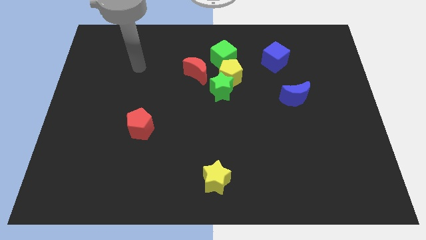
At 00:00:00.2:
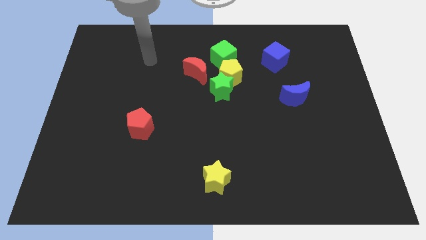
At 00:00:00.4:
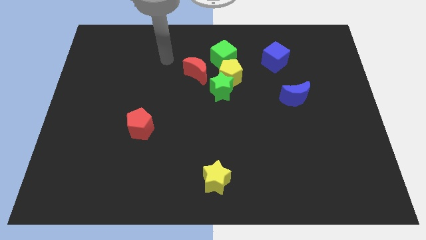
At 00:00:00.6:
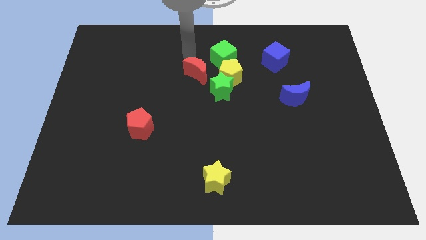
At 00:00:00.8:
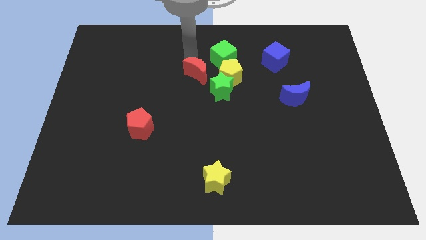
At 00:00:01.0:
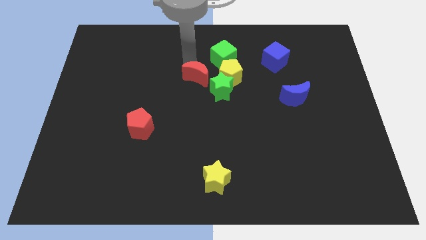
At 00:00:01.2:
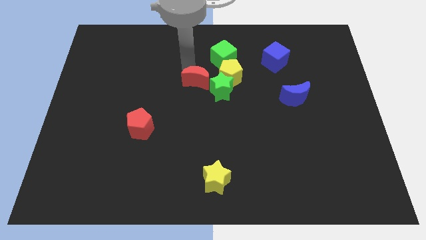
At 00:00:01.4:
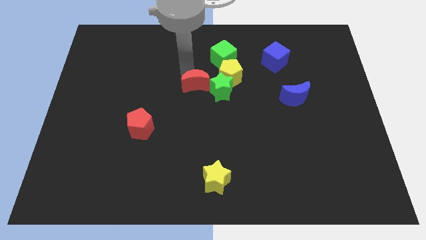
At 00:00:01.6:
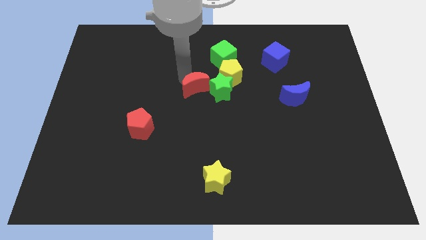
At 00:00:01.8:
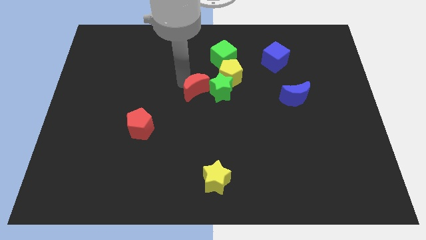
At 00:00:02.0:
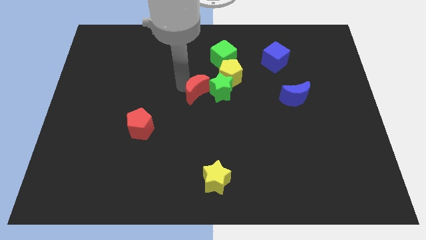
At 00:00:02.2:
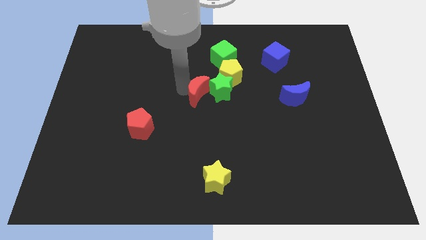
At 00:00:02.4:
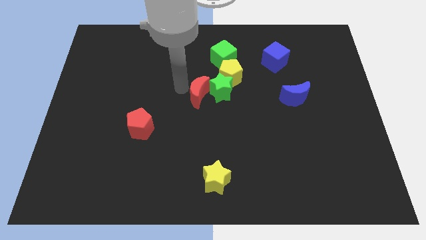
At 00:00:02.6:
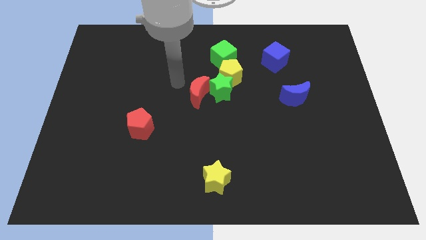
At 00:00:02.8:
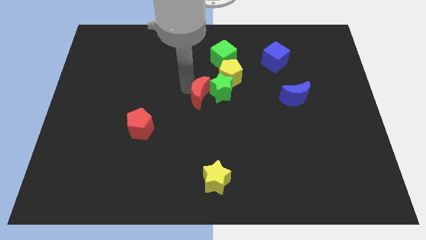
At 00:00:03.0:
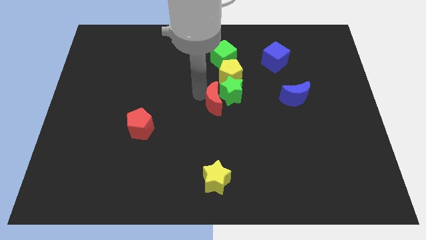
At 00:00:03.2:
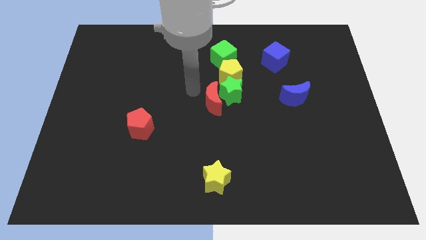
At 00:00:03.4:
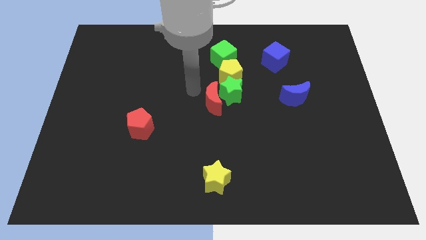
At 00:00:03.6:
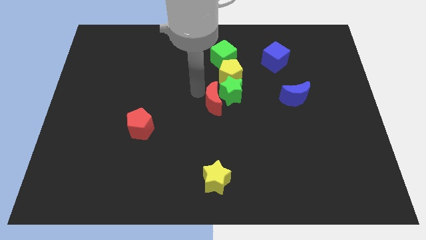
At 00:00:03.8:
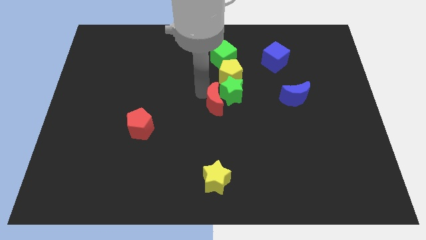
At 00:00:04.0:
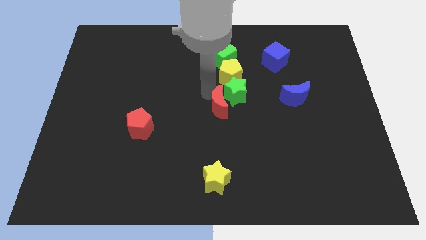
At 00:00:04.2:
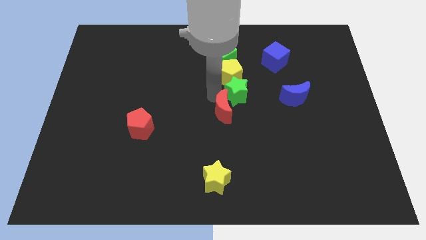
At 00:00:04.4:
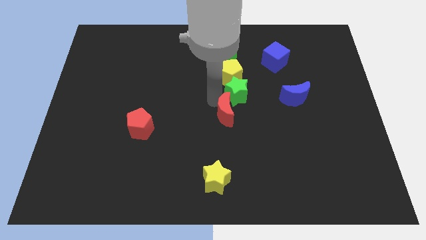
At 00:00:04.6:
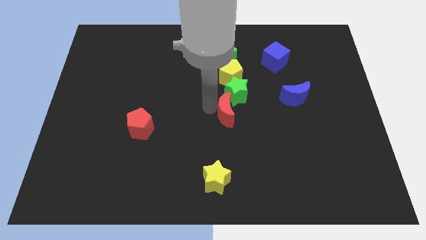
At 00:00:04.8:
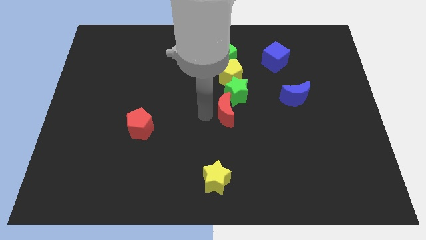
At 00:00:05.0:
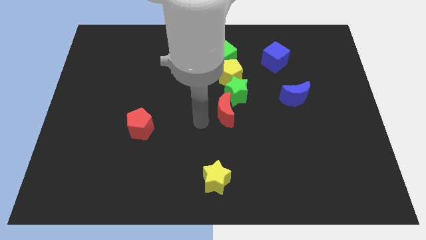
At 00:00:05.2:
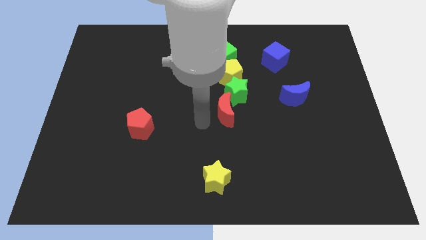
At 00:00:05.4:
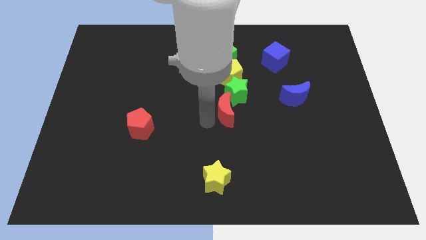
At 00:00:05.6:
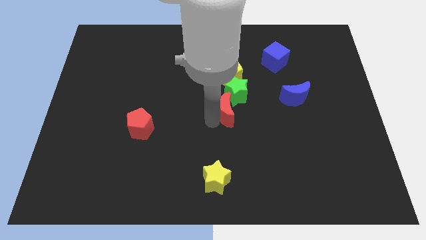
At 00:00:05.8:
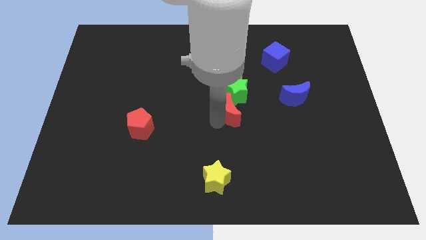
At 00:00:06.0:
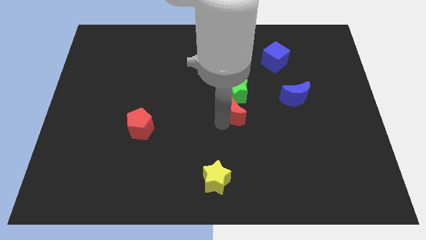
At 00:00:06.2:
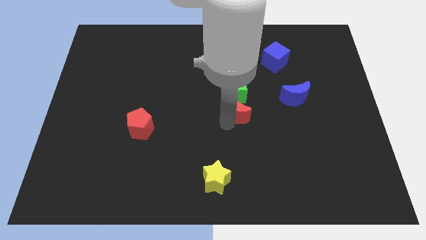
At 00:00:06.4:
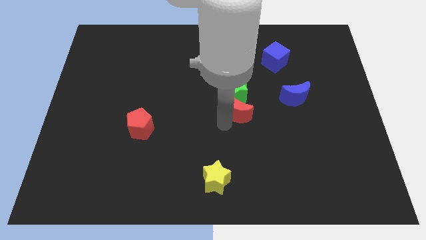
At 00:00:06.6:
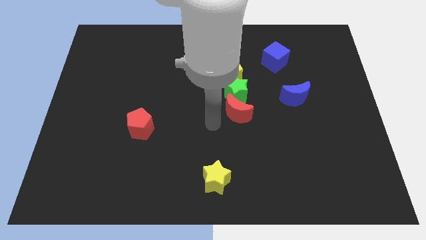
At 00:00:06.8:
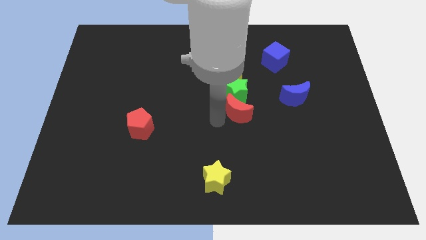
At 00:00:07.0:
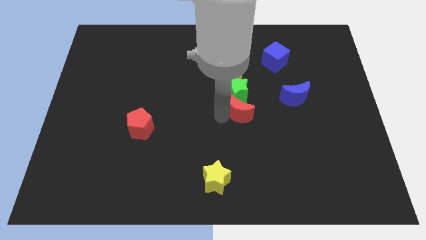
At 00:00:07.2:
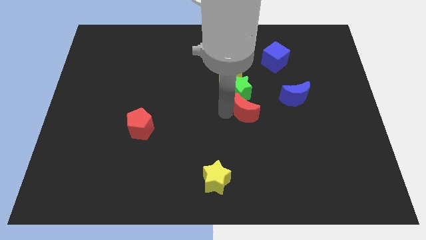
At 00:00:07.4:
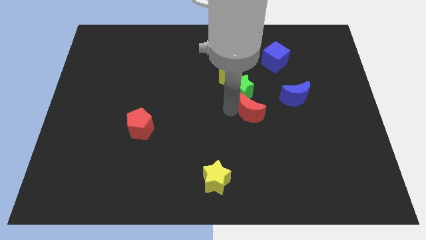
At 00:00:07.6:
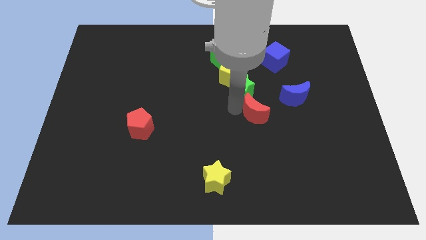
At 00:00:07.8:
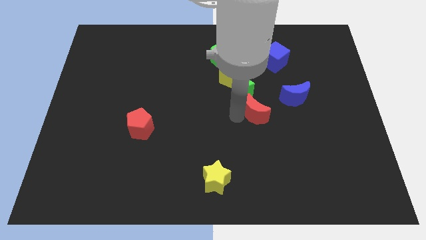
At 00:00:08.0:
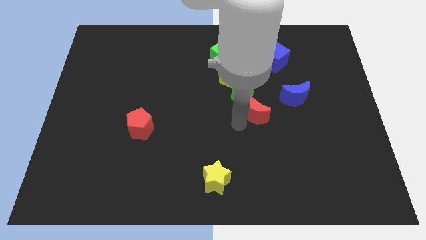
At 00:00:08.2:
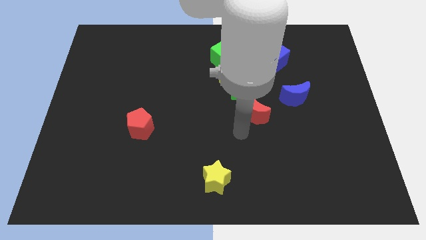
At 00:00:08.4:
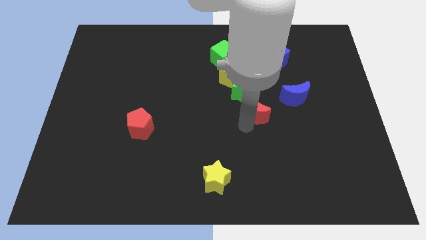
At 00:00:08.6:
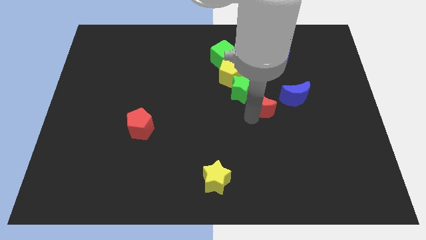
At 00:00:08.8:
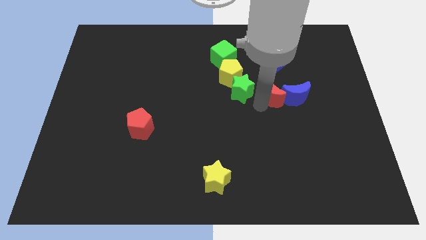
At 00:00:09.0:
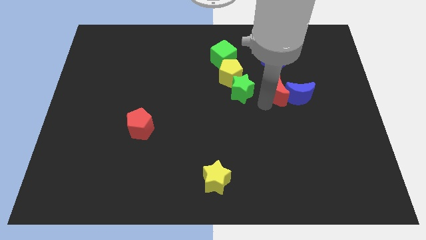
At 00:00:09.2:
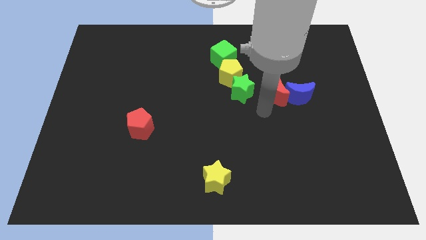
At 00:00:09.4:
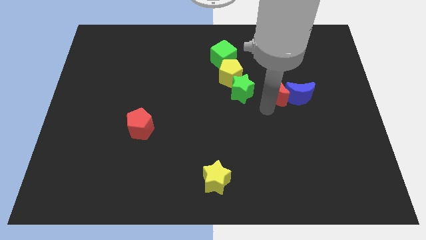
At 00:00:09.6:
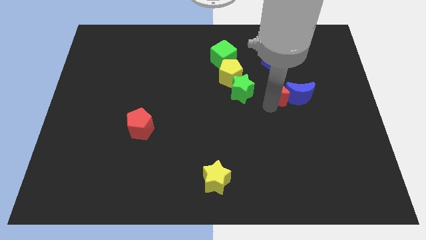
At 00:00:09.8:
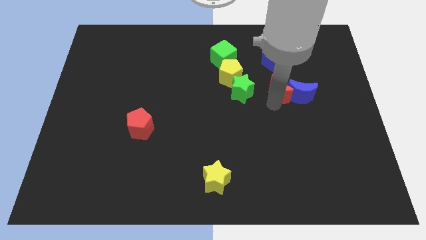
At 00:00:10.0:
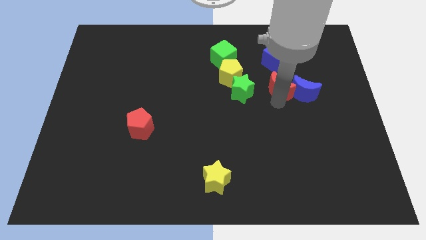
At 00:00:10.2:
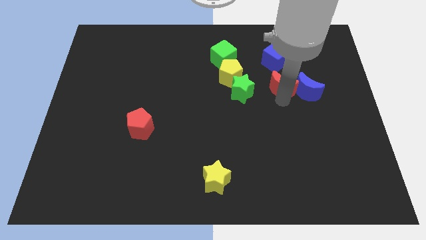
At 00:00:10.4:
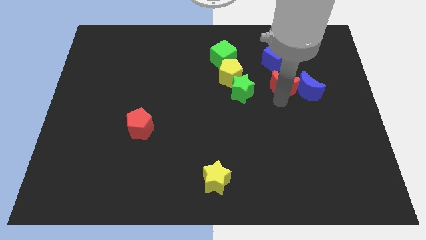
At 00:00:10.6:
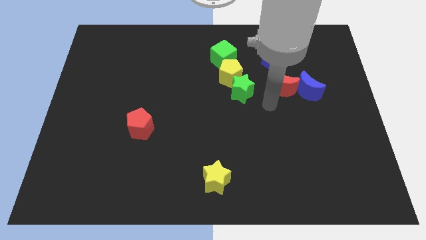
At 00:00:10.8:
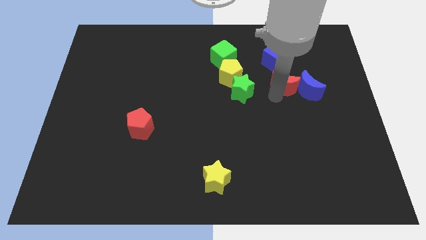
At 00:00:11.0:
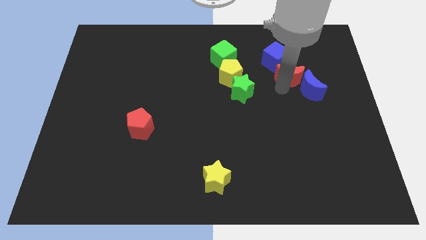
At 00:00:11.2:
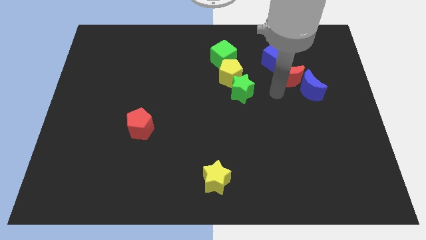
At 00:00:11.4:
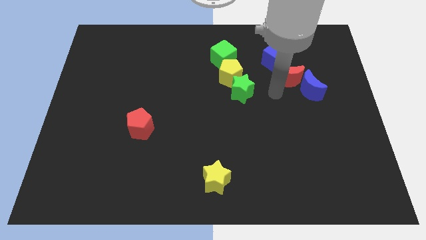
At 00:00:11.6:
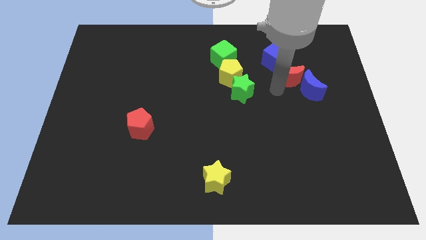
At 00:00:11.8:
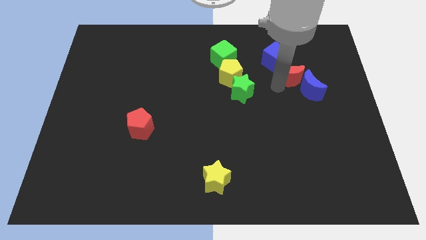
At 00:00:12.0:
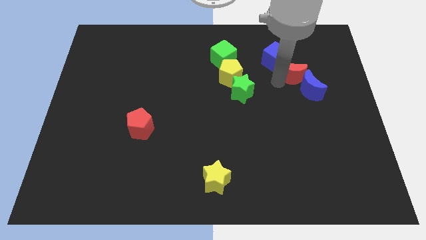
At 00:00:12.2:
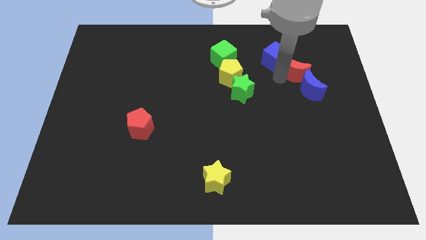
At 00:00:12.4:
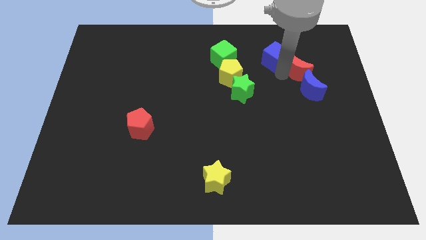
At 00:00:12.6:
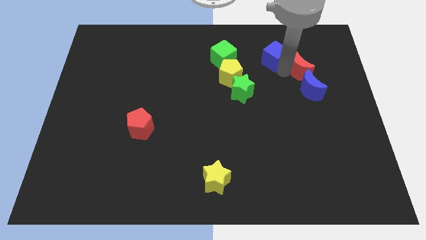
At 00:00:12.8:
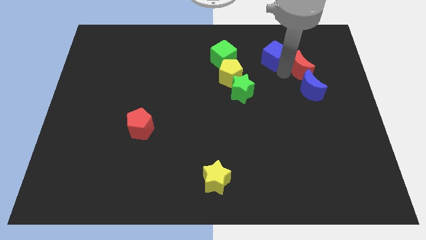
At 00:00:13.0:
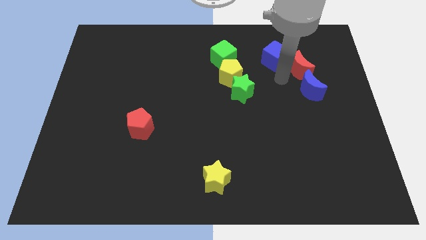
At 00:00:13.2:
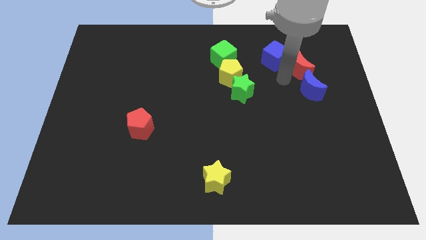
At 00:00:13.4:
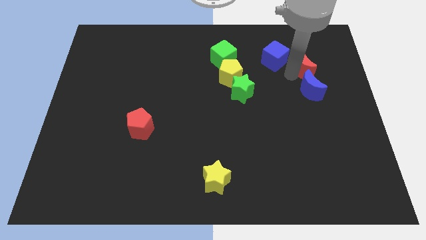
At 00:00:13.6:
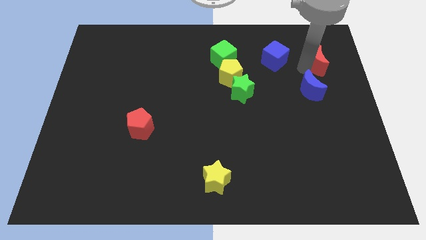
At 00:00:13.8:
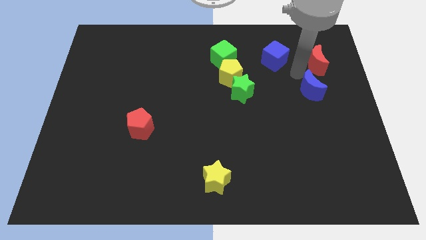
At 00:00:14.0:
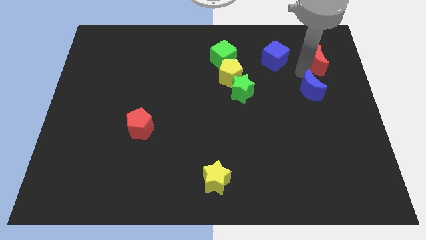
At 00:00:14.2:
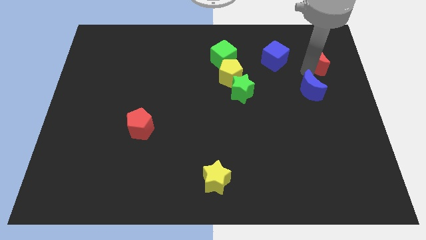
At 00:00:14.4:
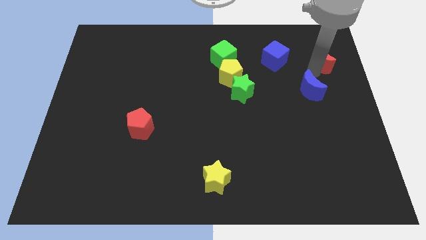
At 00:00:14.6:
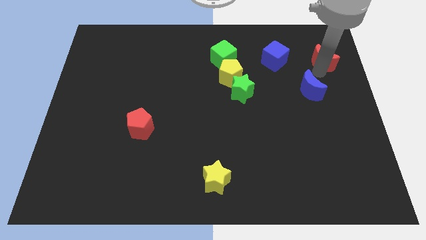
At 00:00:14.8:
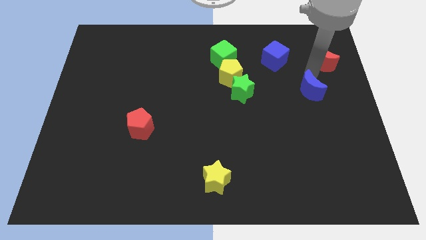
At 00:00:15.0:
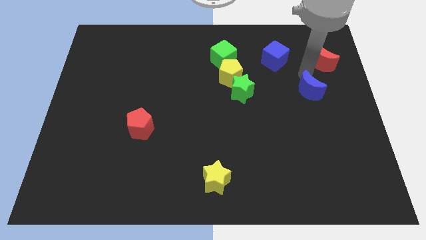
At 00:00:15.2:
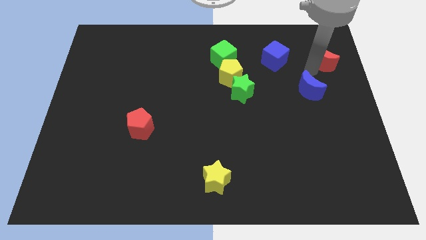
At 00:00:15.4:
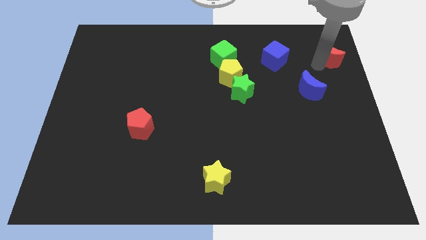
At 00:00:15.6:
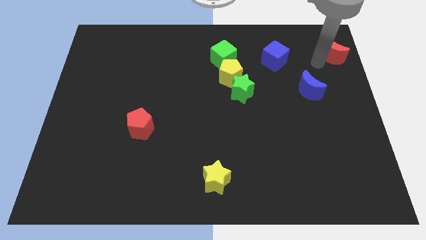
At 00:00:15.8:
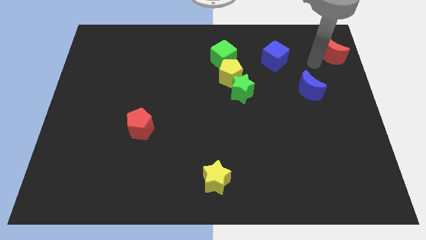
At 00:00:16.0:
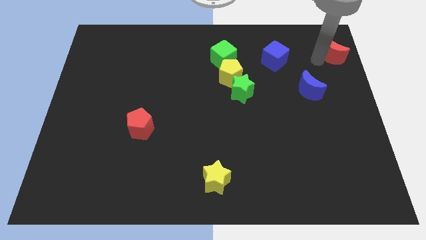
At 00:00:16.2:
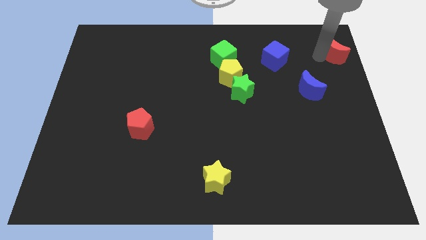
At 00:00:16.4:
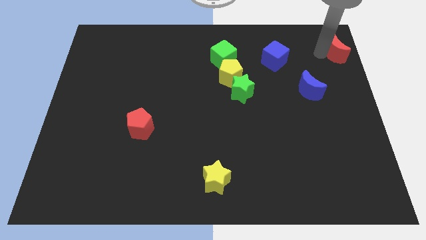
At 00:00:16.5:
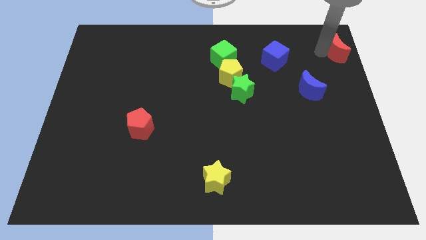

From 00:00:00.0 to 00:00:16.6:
put the red moon to the top right
